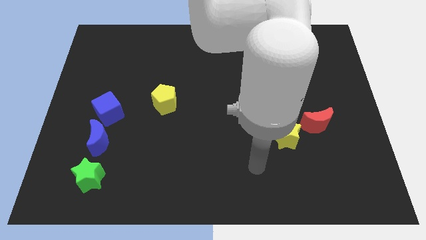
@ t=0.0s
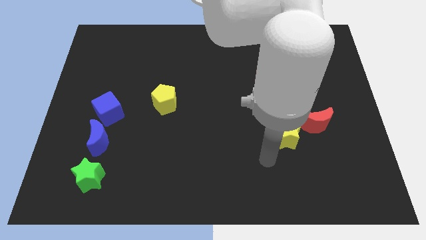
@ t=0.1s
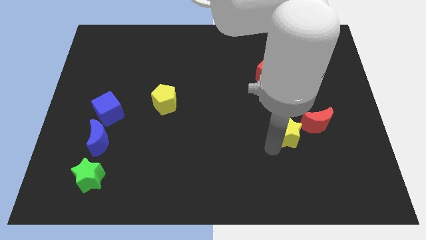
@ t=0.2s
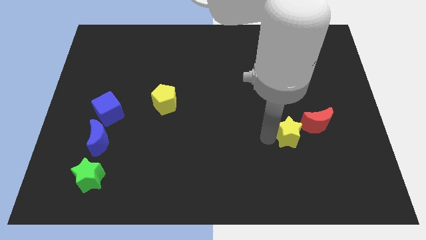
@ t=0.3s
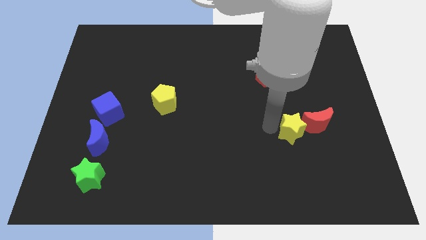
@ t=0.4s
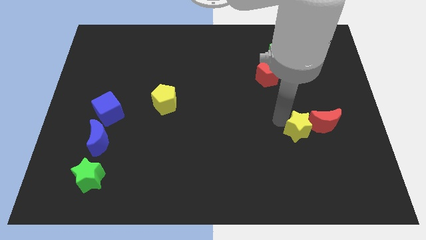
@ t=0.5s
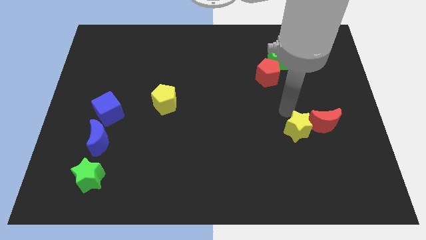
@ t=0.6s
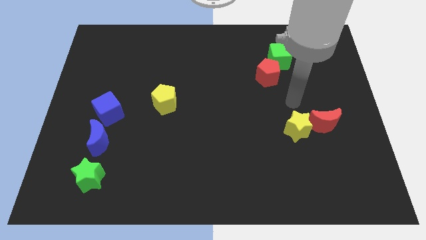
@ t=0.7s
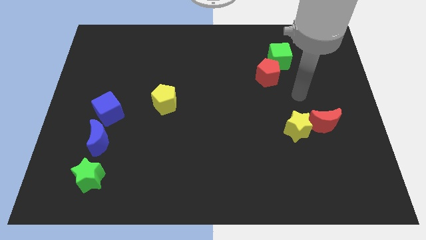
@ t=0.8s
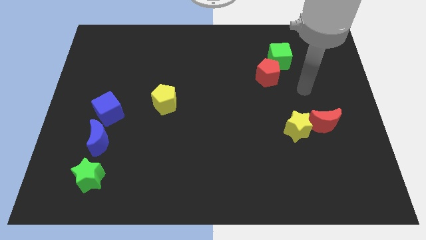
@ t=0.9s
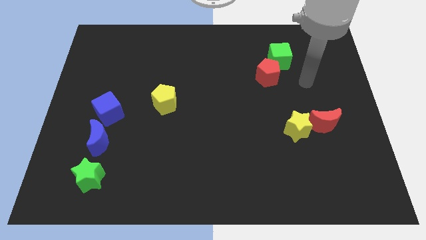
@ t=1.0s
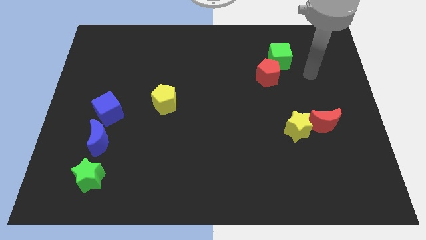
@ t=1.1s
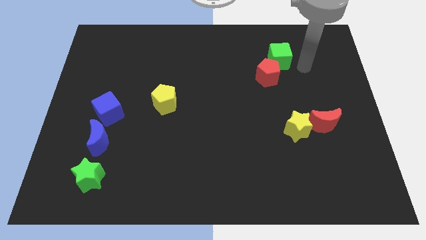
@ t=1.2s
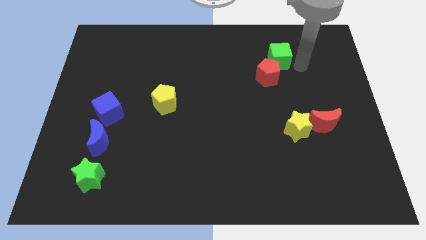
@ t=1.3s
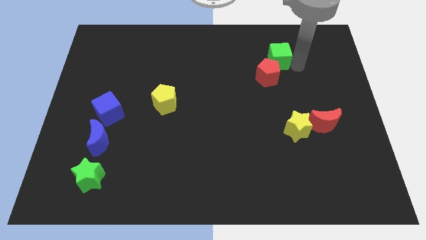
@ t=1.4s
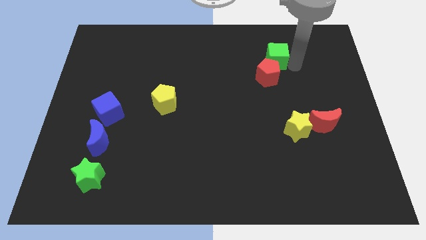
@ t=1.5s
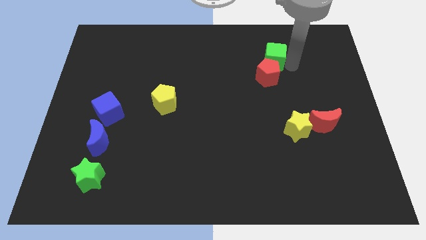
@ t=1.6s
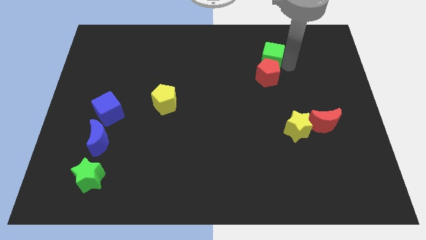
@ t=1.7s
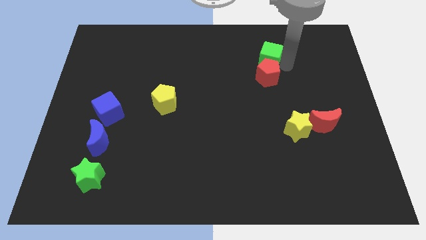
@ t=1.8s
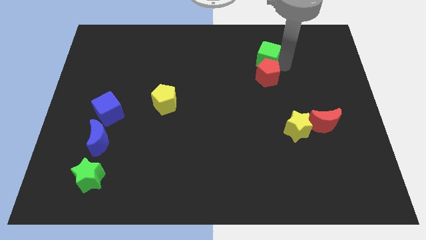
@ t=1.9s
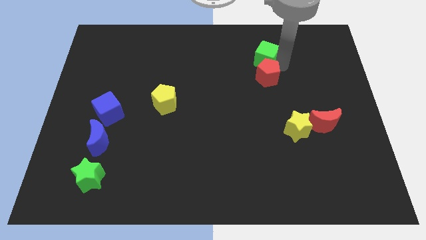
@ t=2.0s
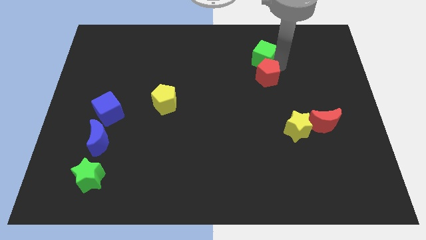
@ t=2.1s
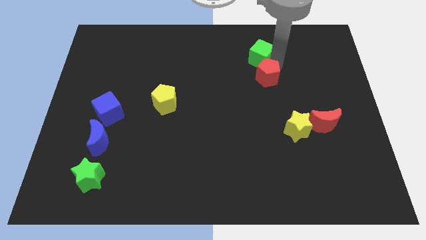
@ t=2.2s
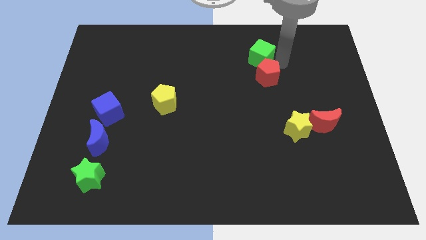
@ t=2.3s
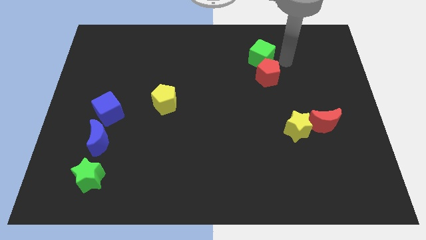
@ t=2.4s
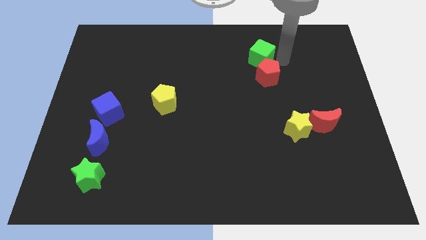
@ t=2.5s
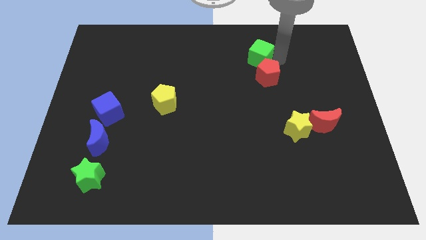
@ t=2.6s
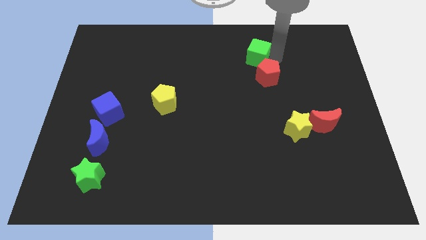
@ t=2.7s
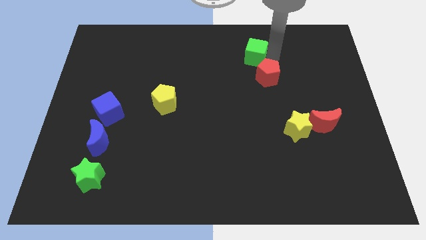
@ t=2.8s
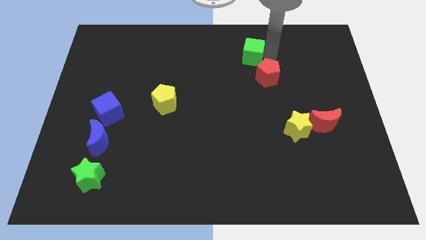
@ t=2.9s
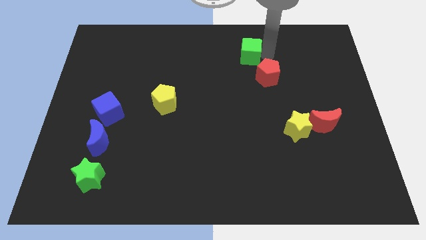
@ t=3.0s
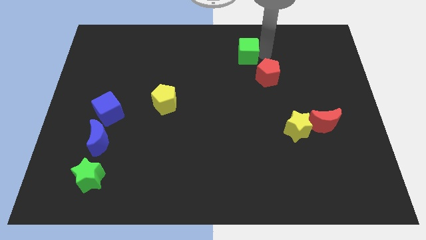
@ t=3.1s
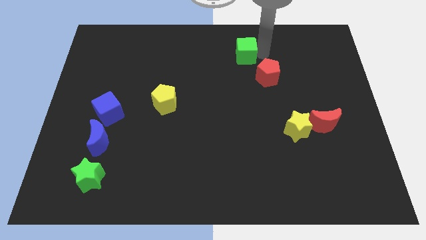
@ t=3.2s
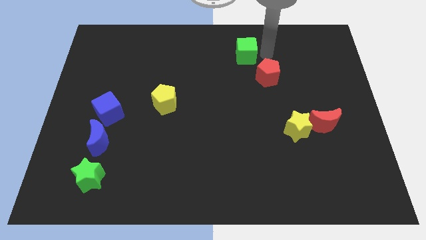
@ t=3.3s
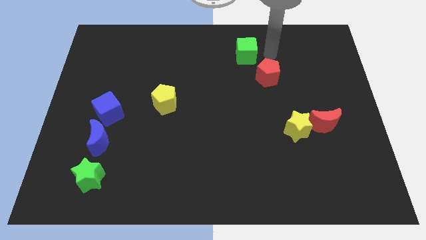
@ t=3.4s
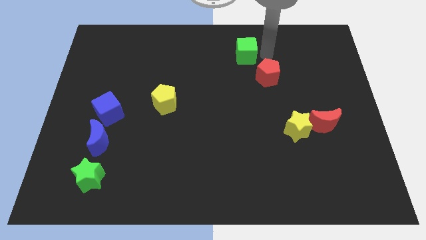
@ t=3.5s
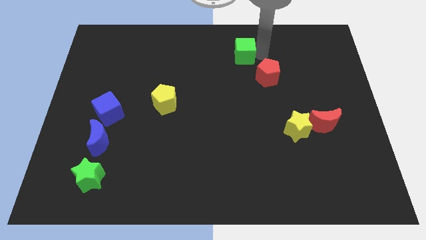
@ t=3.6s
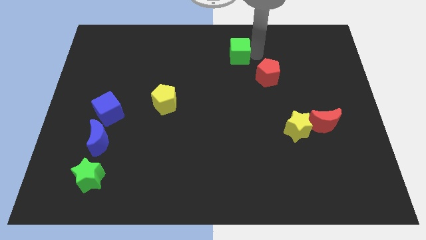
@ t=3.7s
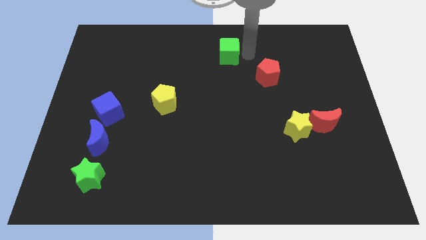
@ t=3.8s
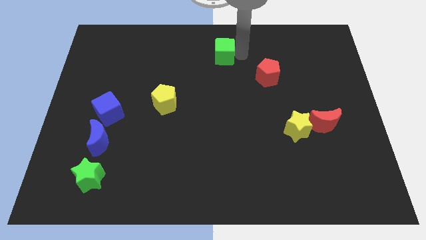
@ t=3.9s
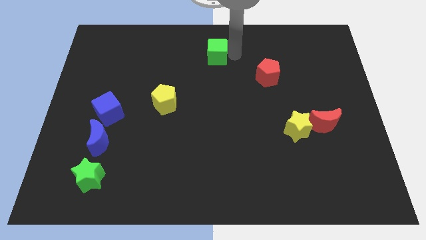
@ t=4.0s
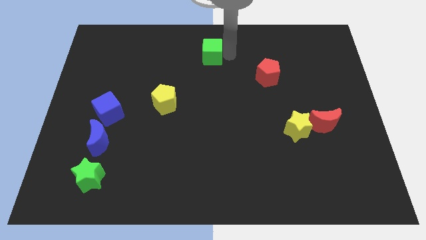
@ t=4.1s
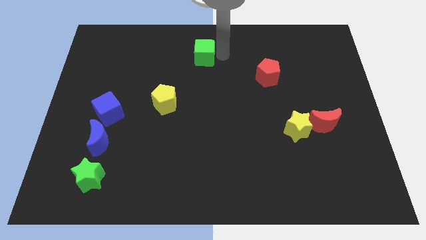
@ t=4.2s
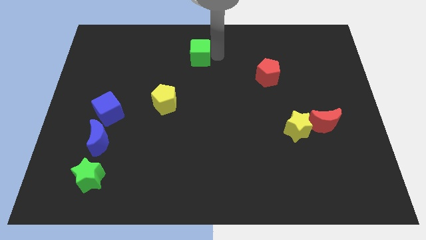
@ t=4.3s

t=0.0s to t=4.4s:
move the green cube to the left

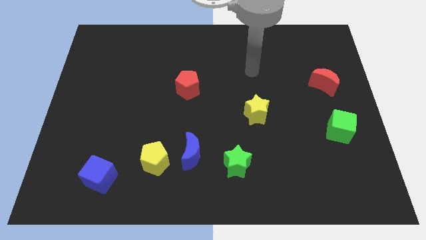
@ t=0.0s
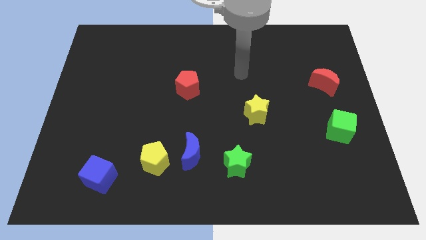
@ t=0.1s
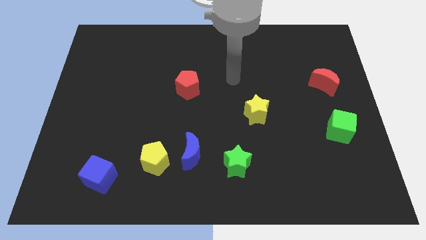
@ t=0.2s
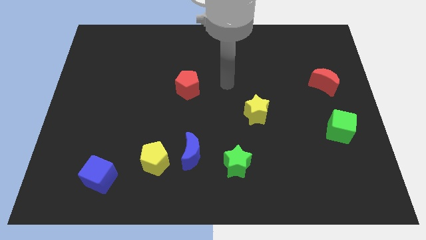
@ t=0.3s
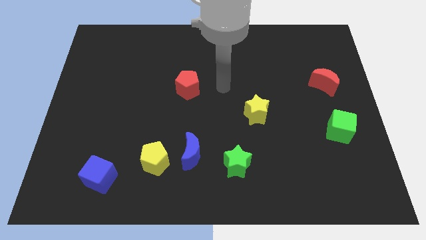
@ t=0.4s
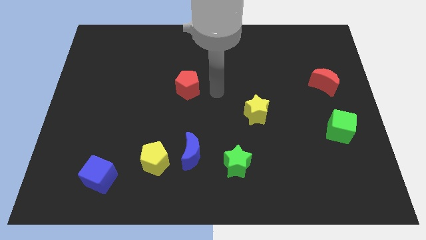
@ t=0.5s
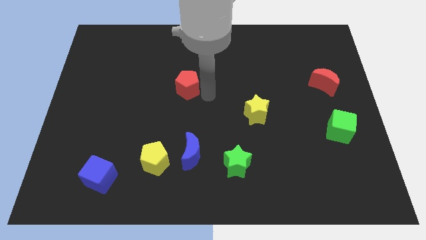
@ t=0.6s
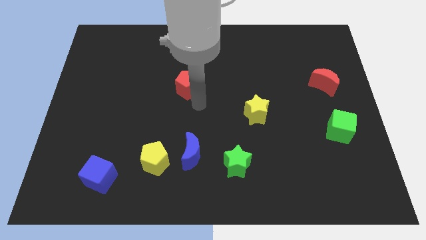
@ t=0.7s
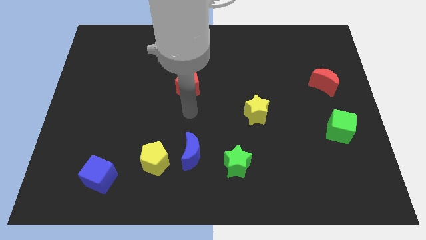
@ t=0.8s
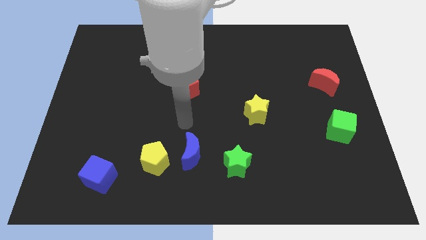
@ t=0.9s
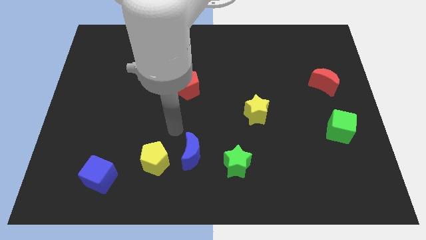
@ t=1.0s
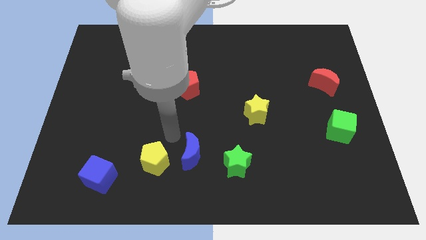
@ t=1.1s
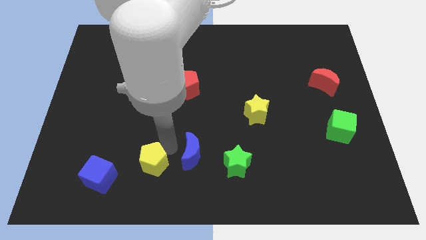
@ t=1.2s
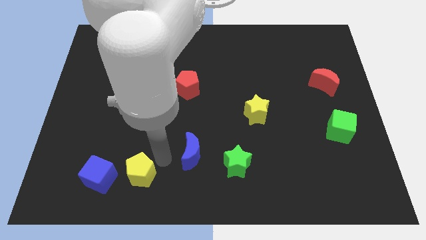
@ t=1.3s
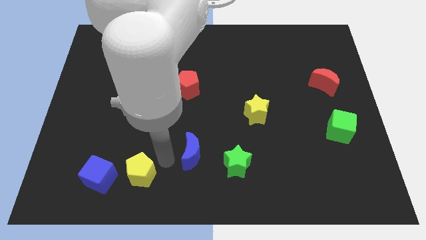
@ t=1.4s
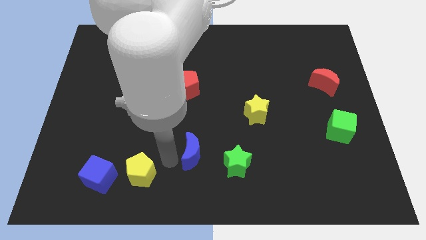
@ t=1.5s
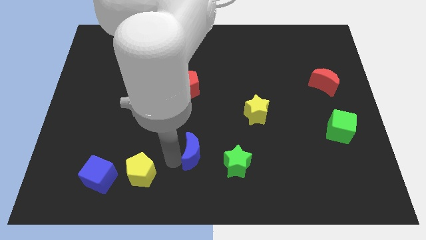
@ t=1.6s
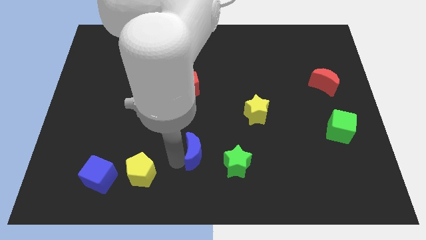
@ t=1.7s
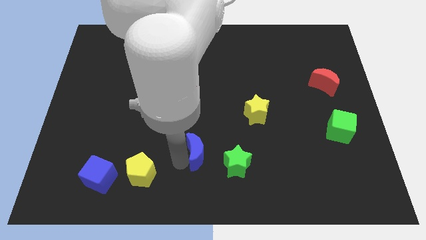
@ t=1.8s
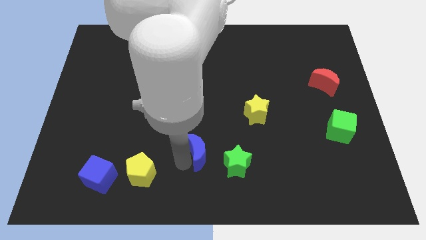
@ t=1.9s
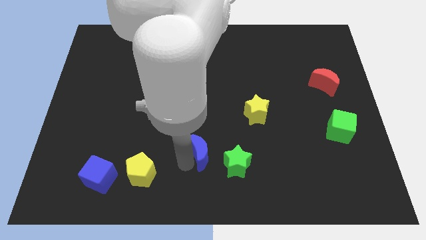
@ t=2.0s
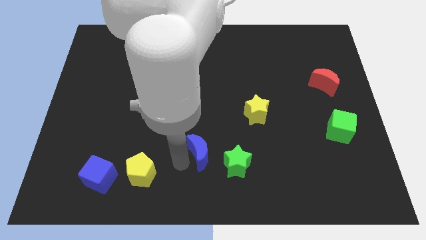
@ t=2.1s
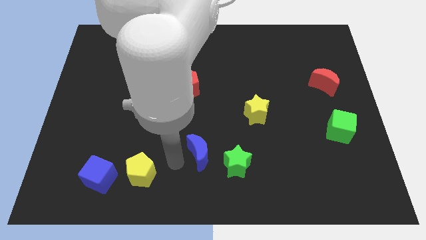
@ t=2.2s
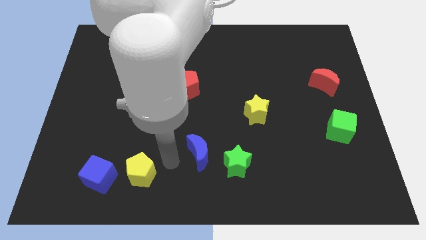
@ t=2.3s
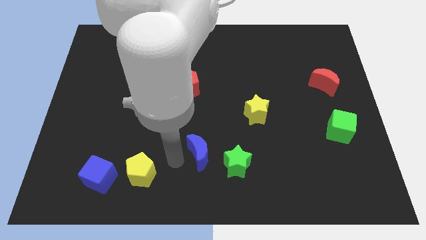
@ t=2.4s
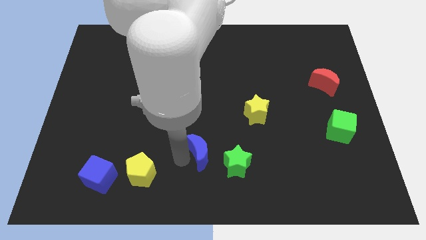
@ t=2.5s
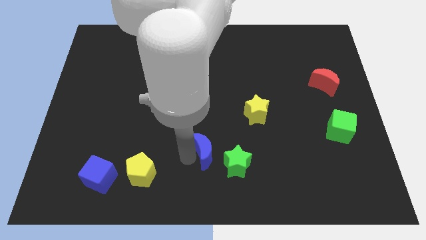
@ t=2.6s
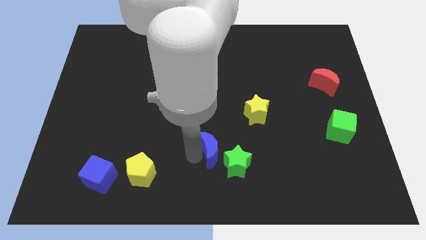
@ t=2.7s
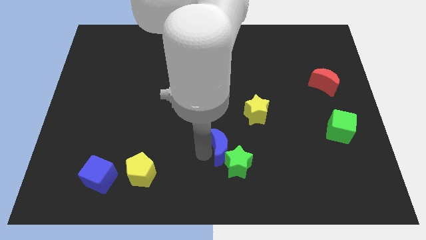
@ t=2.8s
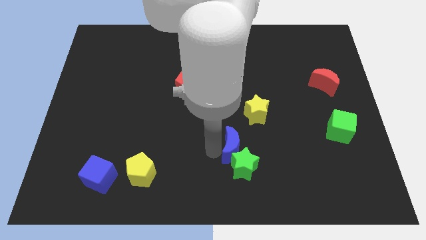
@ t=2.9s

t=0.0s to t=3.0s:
push the blue moon slightly right

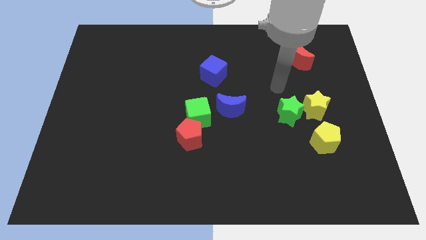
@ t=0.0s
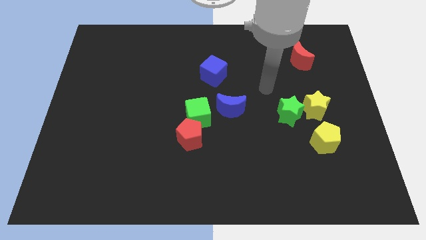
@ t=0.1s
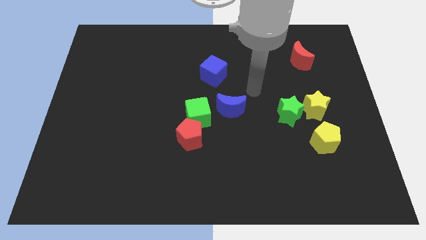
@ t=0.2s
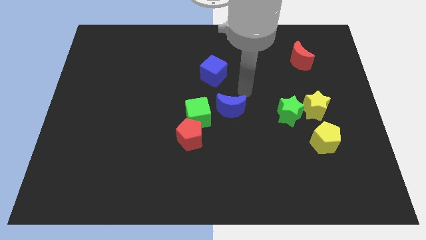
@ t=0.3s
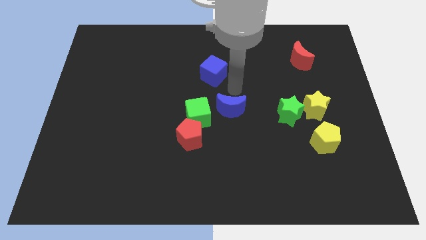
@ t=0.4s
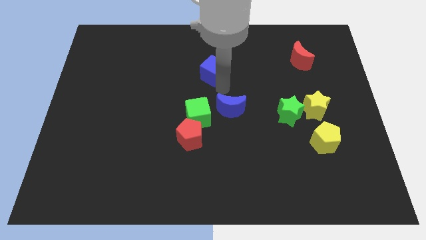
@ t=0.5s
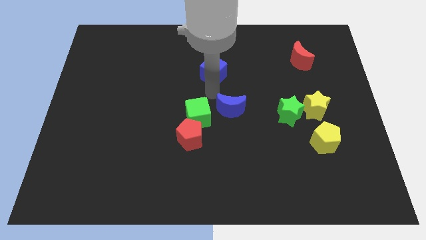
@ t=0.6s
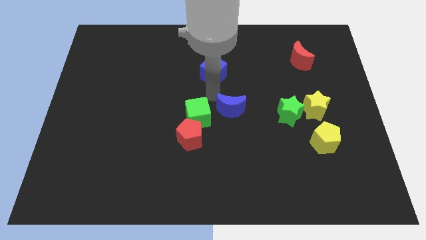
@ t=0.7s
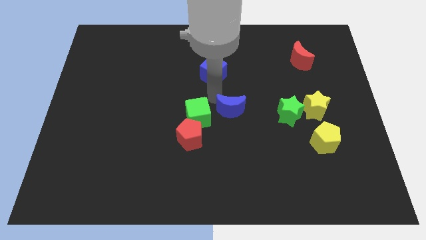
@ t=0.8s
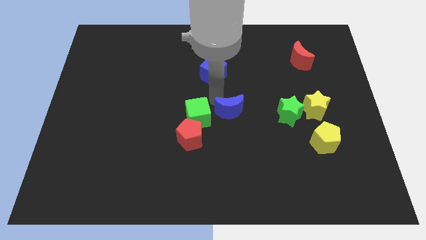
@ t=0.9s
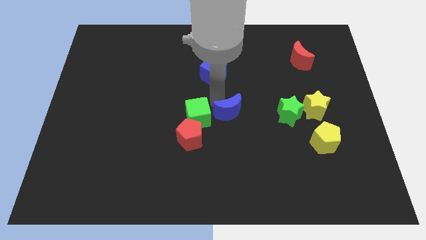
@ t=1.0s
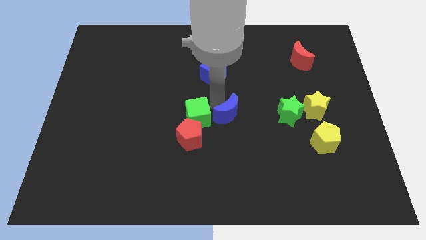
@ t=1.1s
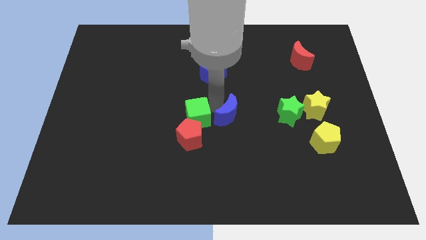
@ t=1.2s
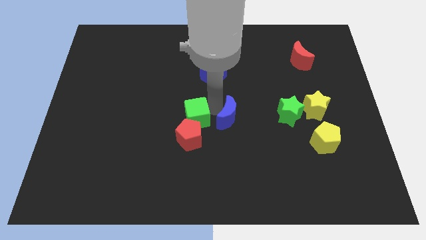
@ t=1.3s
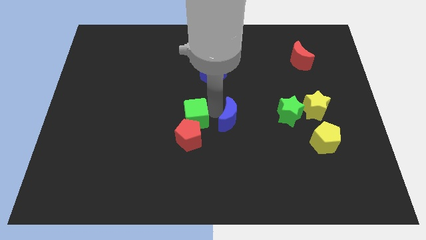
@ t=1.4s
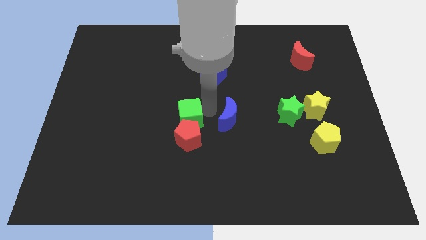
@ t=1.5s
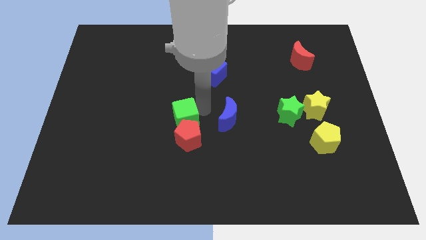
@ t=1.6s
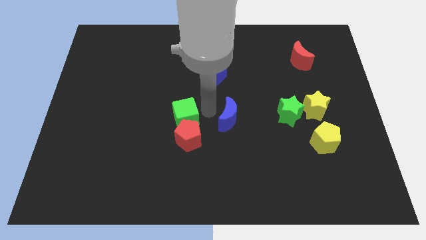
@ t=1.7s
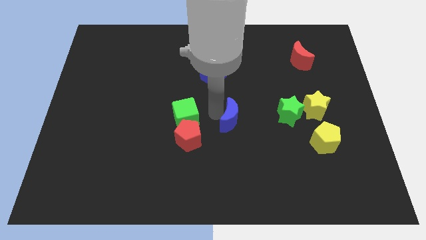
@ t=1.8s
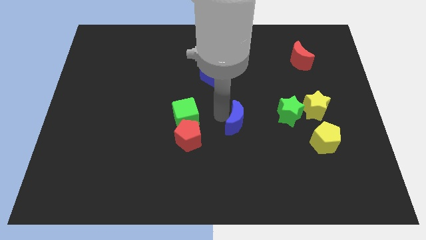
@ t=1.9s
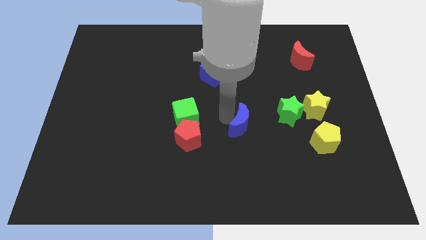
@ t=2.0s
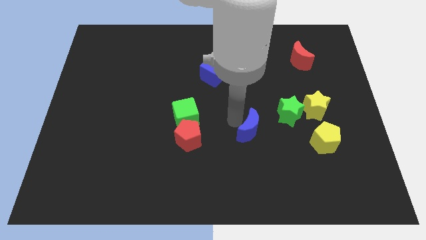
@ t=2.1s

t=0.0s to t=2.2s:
move the blue moon a bit downwards and right diagonally
